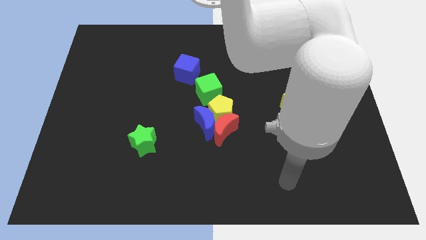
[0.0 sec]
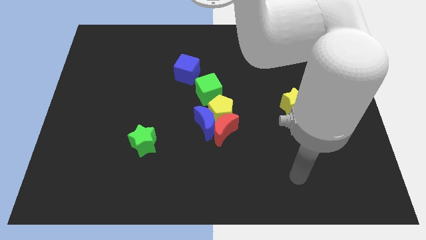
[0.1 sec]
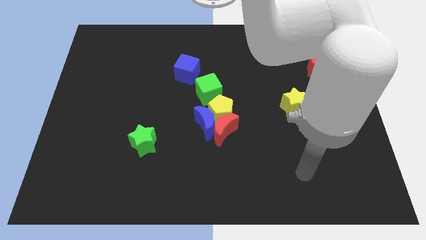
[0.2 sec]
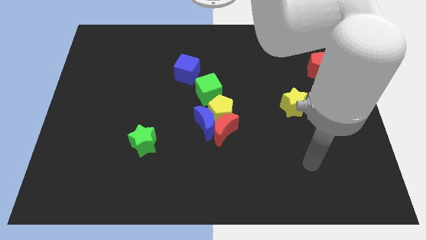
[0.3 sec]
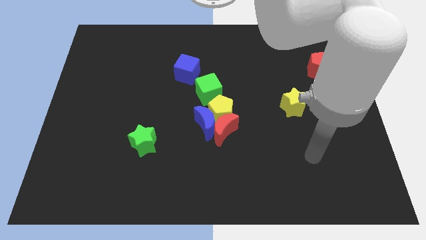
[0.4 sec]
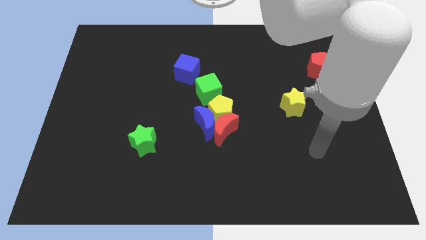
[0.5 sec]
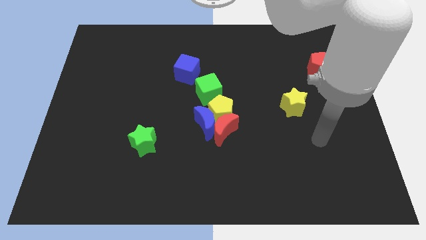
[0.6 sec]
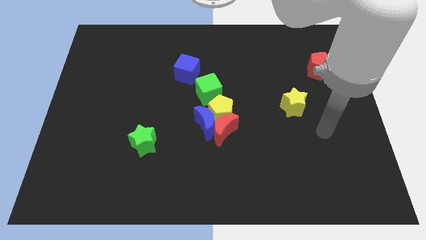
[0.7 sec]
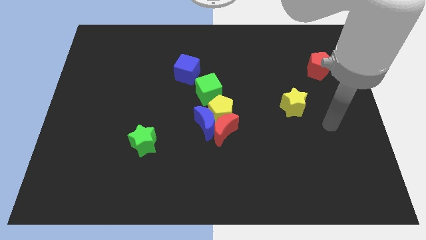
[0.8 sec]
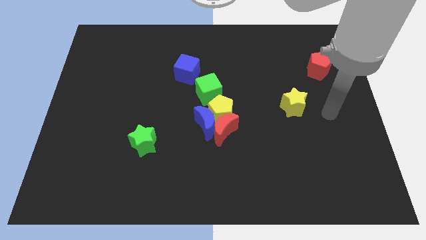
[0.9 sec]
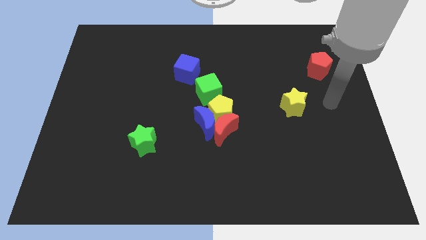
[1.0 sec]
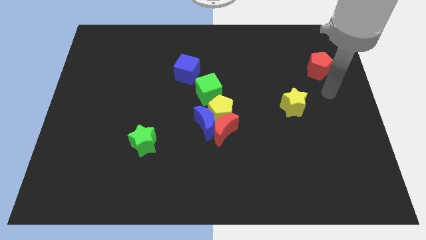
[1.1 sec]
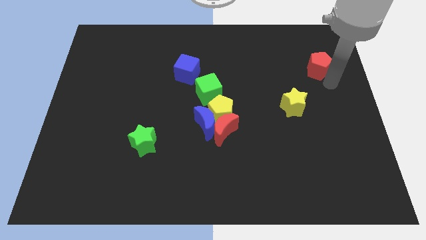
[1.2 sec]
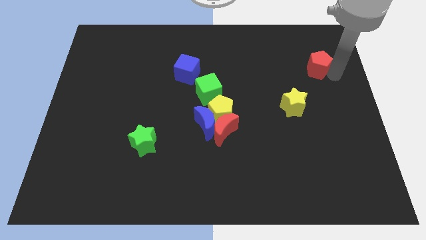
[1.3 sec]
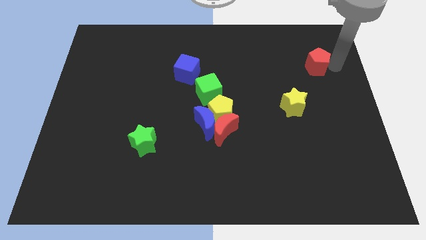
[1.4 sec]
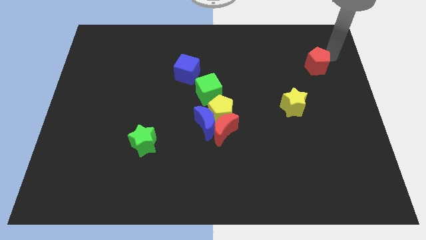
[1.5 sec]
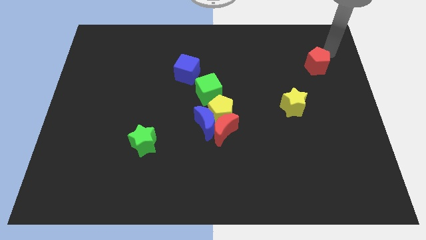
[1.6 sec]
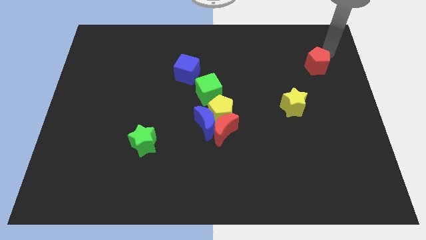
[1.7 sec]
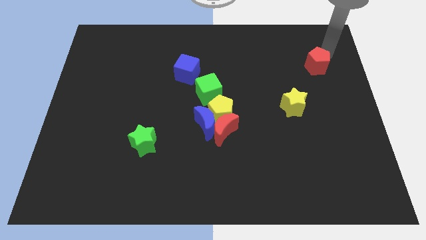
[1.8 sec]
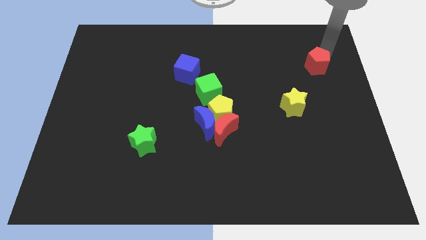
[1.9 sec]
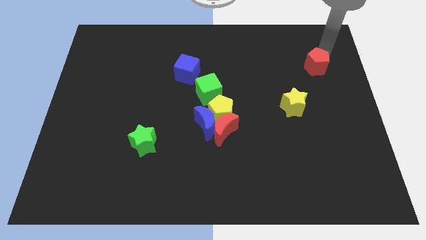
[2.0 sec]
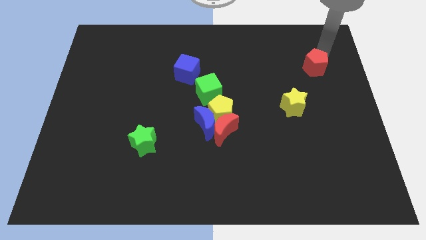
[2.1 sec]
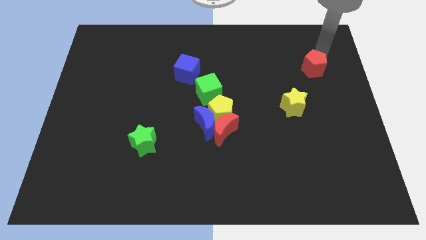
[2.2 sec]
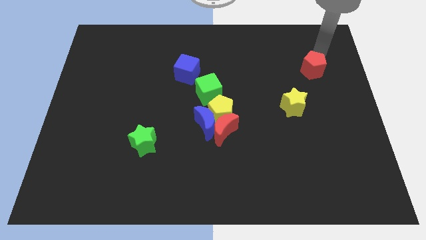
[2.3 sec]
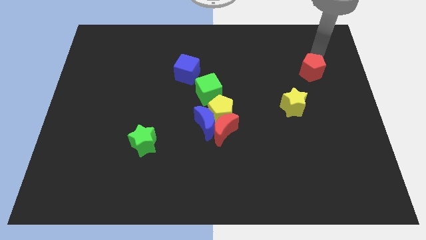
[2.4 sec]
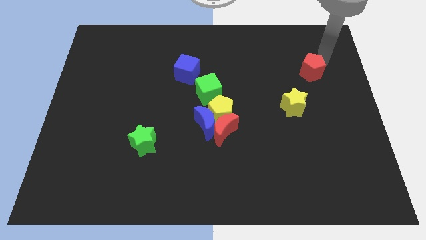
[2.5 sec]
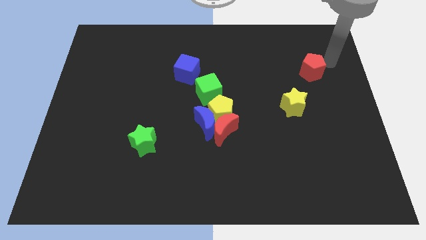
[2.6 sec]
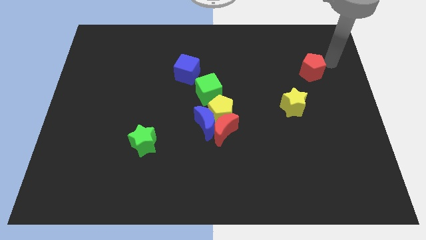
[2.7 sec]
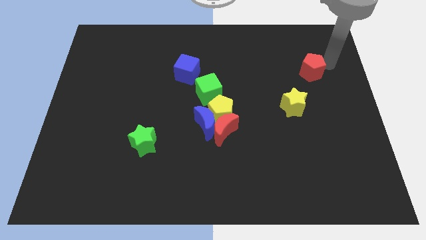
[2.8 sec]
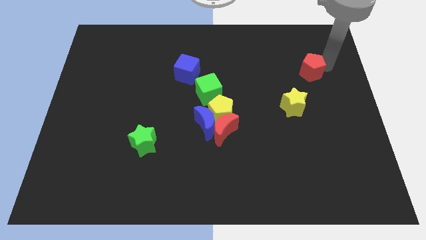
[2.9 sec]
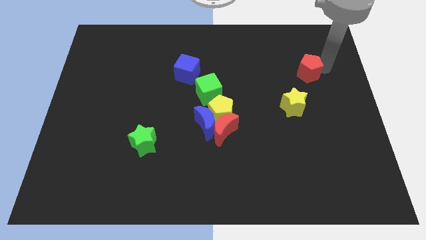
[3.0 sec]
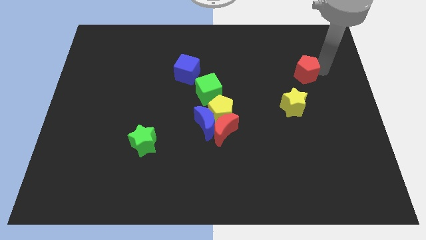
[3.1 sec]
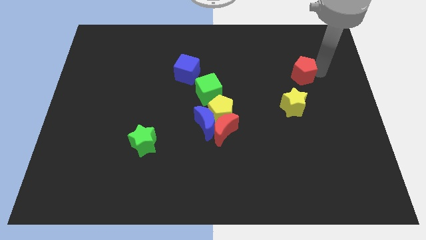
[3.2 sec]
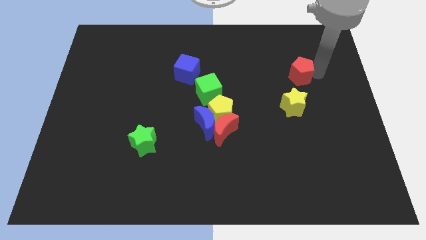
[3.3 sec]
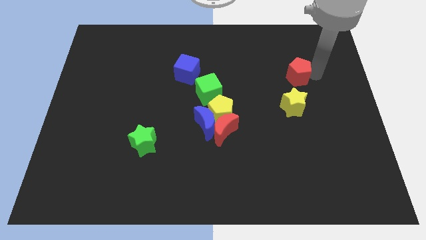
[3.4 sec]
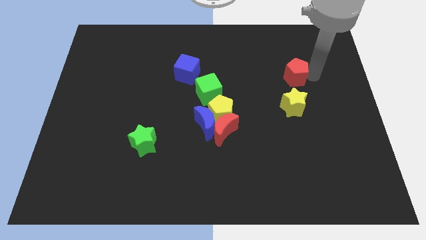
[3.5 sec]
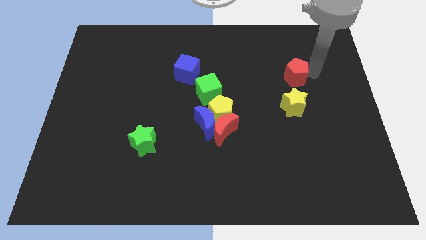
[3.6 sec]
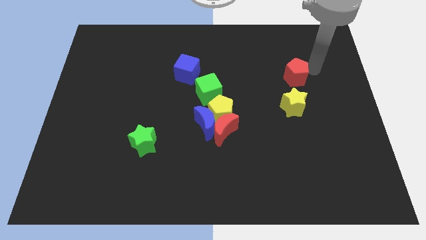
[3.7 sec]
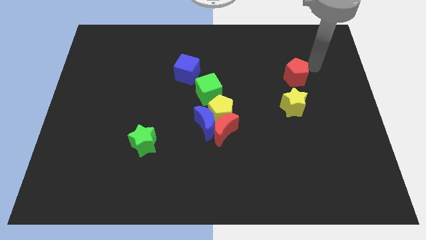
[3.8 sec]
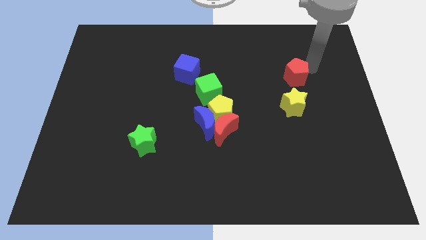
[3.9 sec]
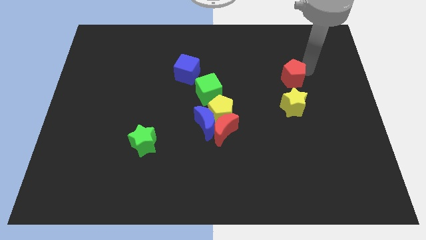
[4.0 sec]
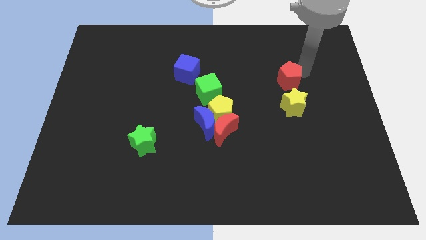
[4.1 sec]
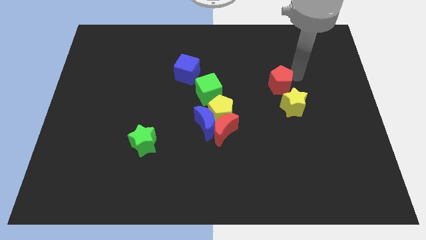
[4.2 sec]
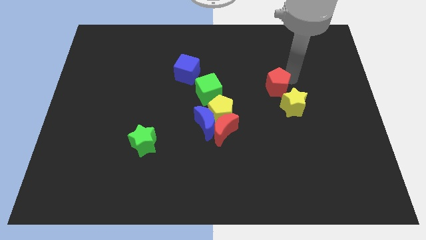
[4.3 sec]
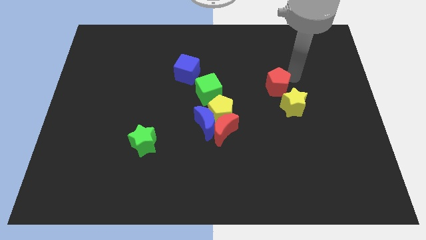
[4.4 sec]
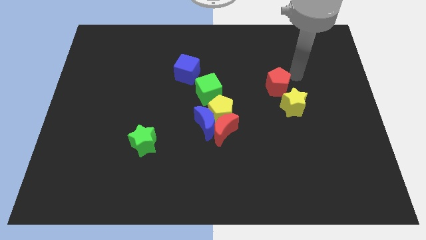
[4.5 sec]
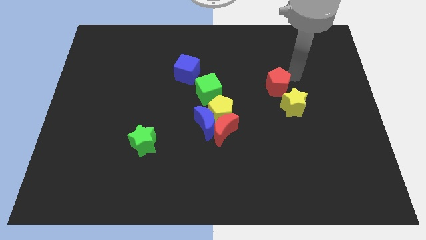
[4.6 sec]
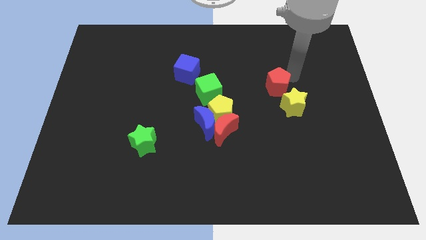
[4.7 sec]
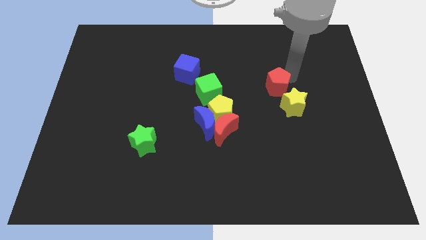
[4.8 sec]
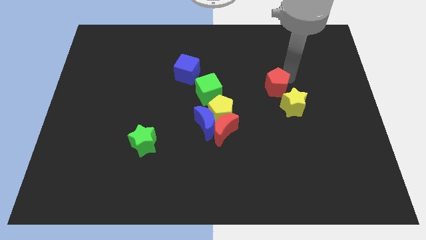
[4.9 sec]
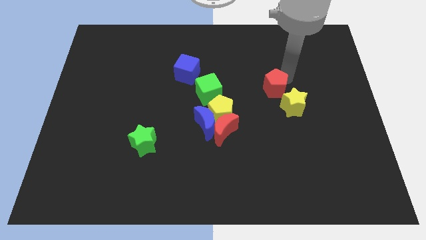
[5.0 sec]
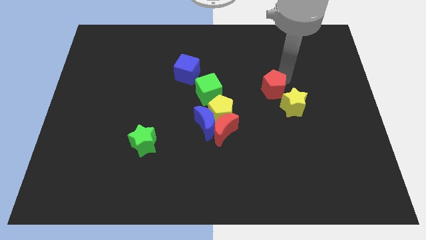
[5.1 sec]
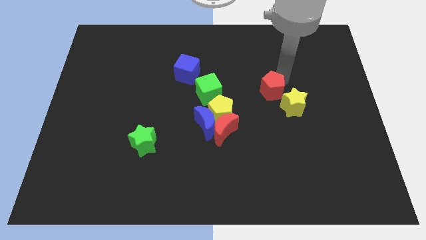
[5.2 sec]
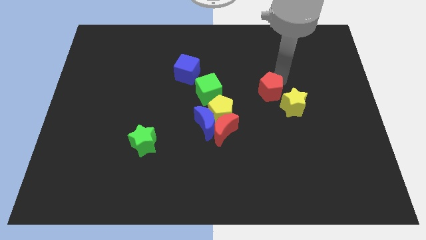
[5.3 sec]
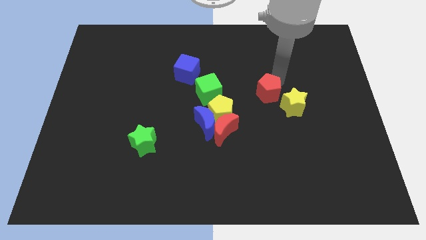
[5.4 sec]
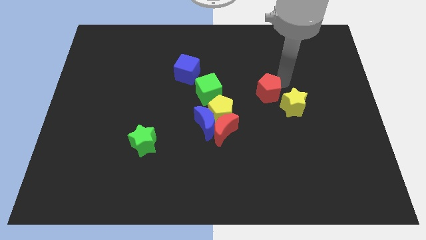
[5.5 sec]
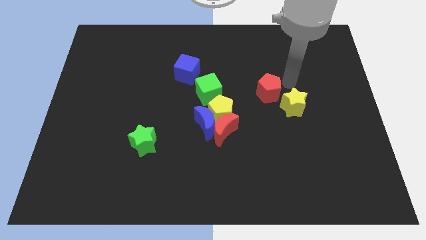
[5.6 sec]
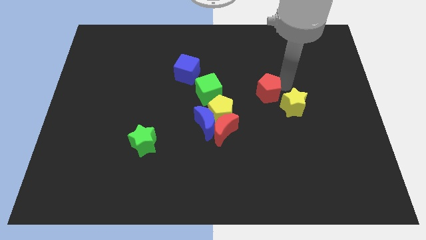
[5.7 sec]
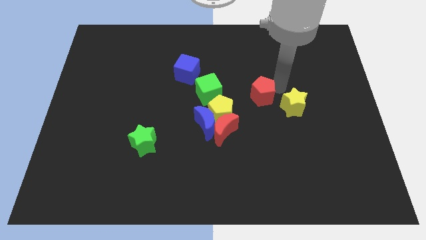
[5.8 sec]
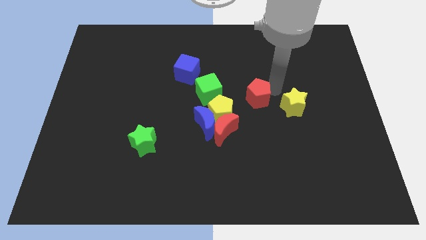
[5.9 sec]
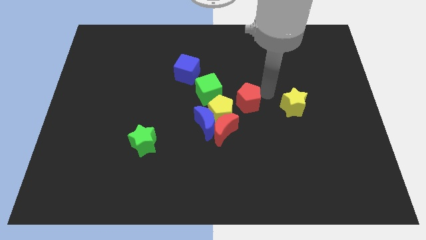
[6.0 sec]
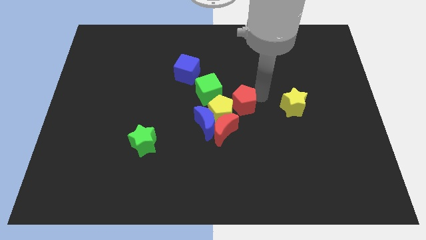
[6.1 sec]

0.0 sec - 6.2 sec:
push the red pentagon towards the yellow pentagon

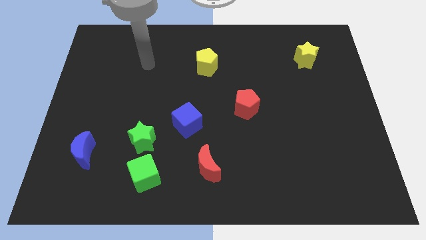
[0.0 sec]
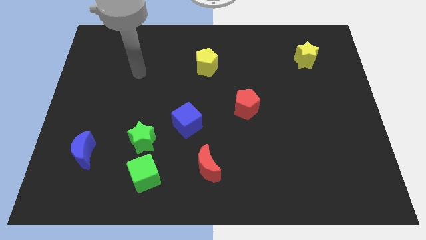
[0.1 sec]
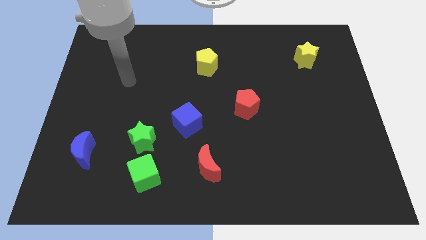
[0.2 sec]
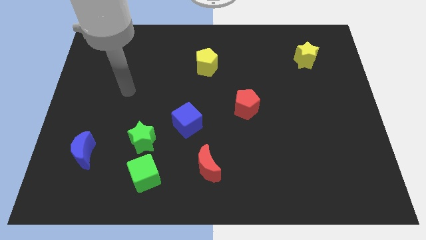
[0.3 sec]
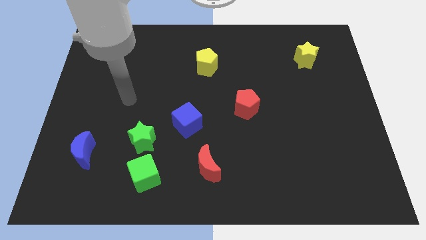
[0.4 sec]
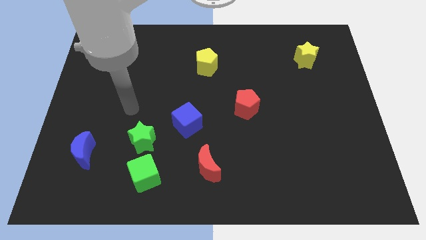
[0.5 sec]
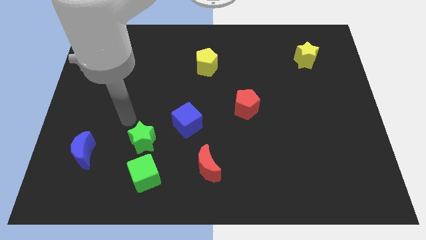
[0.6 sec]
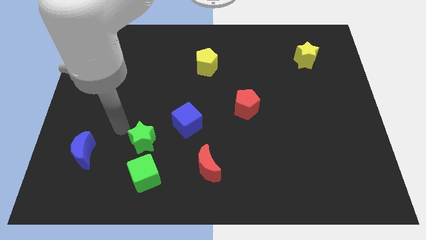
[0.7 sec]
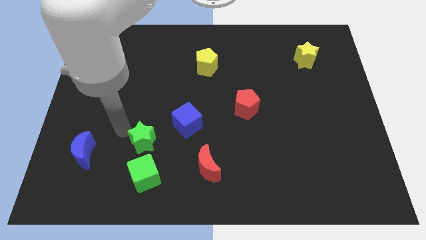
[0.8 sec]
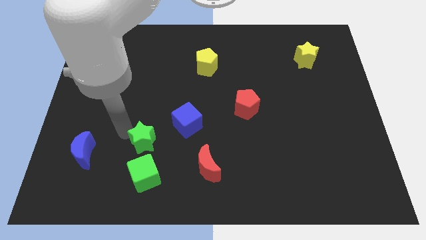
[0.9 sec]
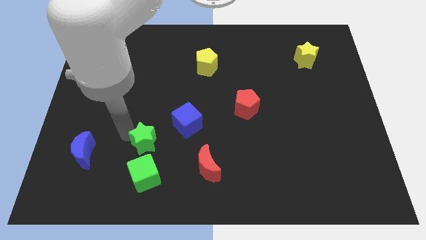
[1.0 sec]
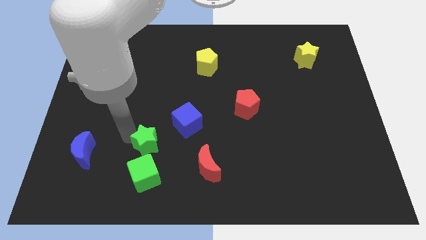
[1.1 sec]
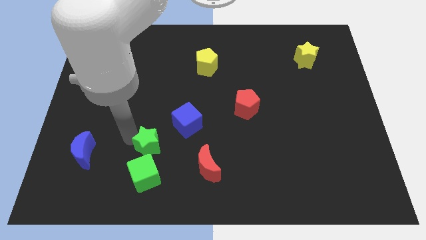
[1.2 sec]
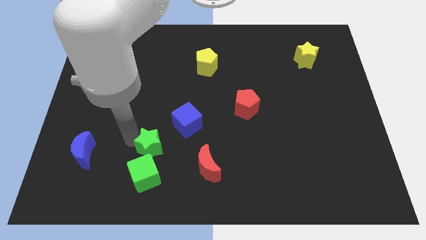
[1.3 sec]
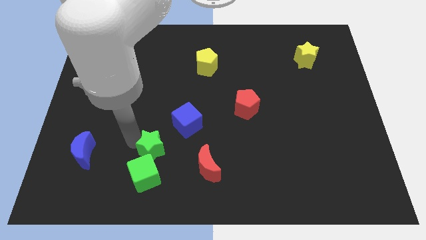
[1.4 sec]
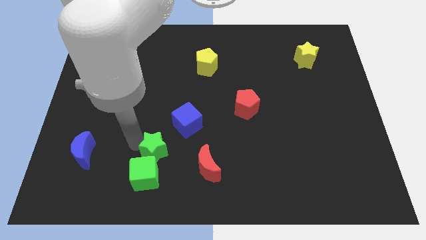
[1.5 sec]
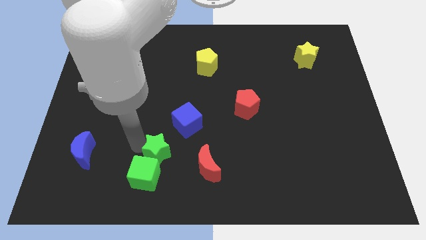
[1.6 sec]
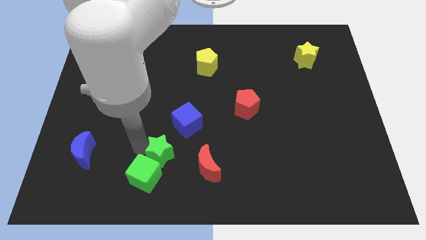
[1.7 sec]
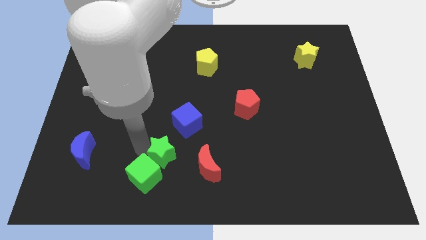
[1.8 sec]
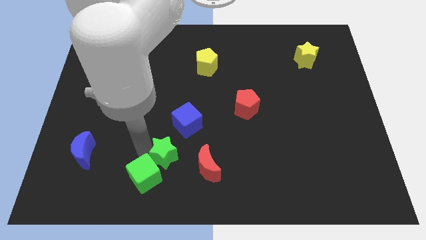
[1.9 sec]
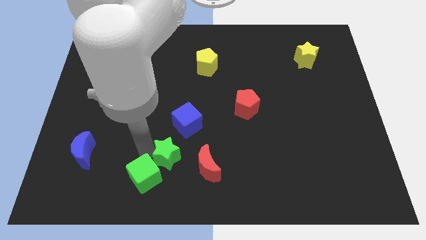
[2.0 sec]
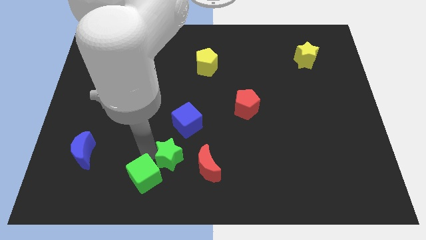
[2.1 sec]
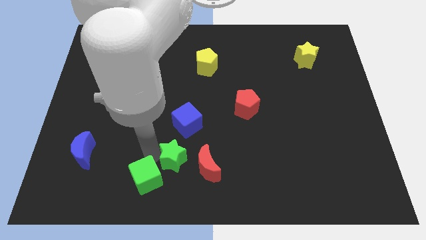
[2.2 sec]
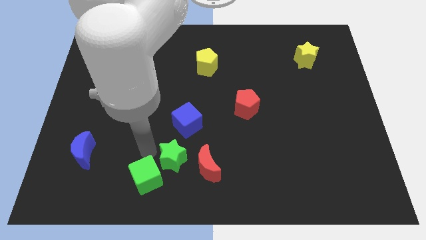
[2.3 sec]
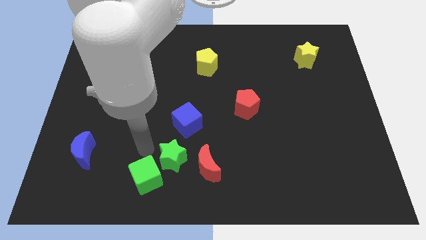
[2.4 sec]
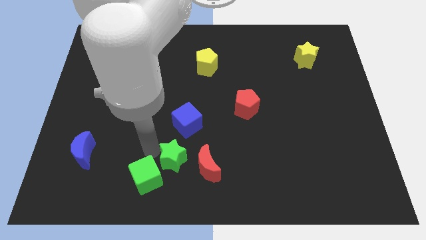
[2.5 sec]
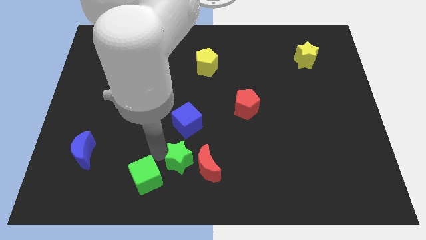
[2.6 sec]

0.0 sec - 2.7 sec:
push the green star to the red moon
